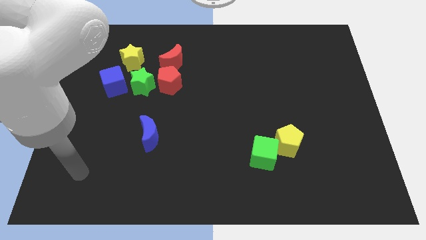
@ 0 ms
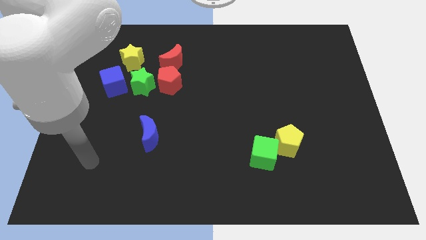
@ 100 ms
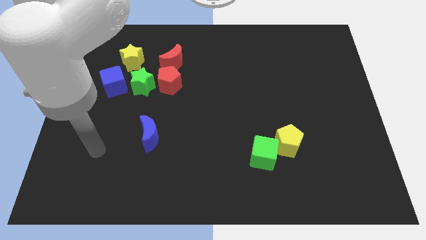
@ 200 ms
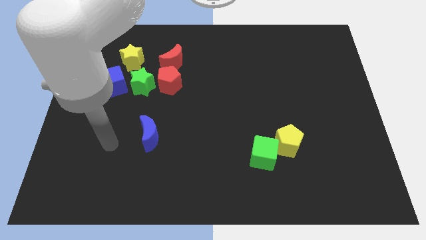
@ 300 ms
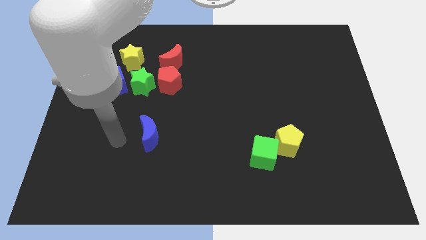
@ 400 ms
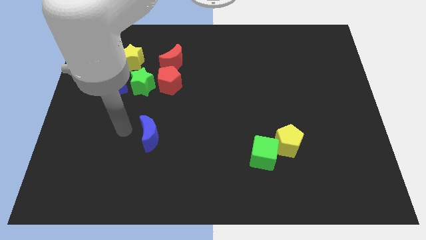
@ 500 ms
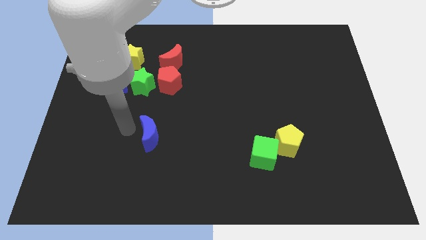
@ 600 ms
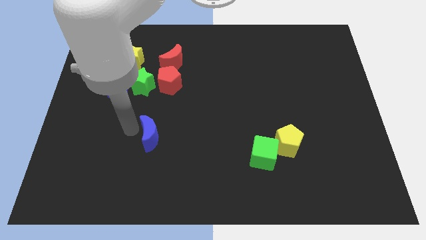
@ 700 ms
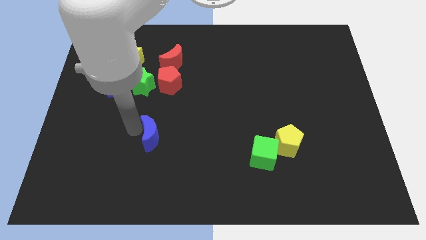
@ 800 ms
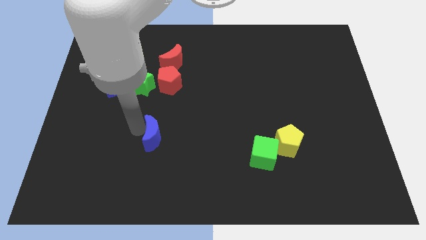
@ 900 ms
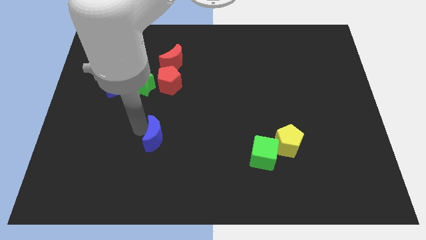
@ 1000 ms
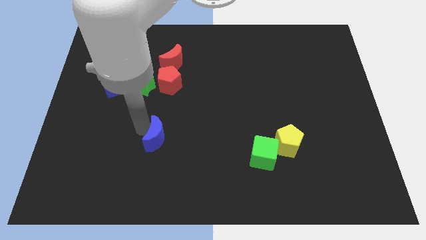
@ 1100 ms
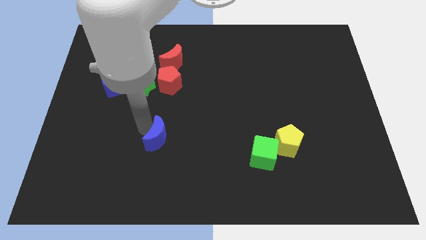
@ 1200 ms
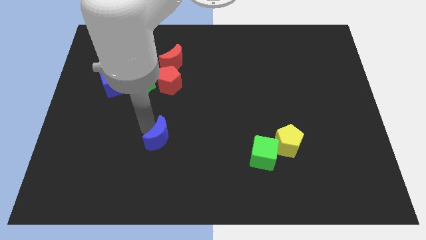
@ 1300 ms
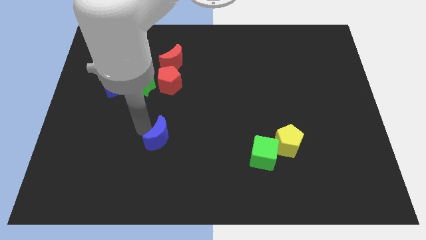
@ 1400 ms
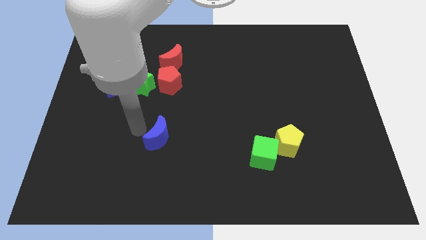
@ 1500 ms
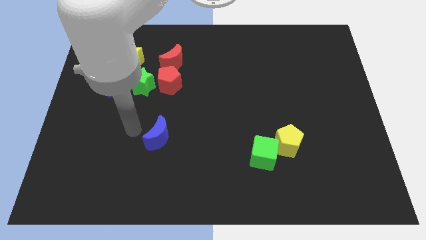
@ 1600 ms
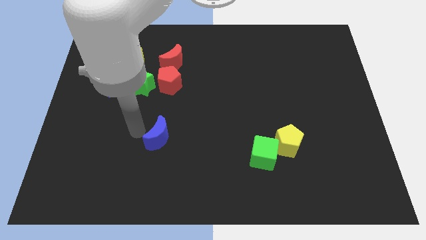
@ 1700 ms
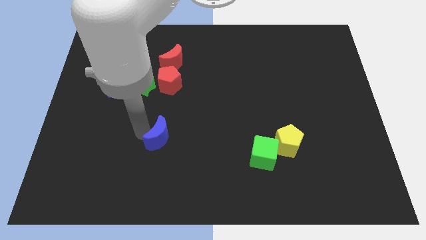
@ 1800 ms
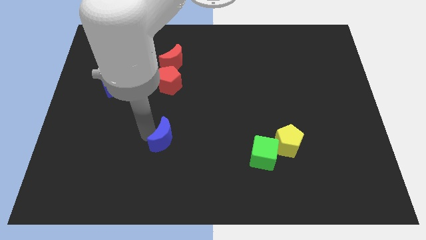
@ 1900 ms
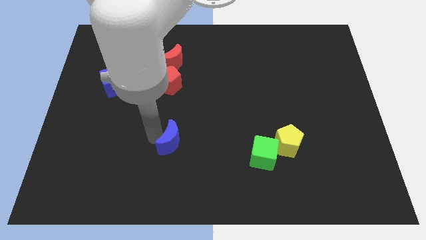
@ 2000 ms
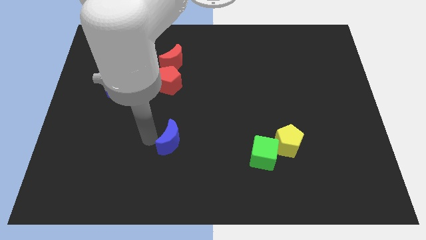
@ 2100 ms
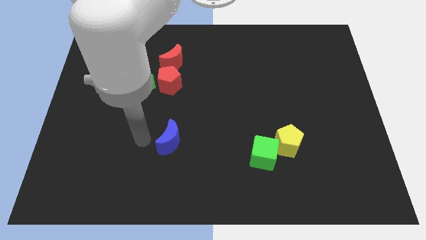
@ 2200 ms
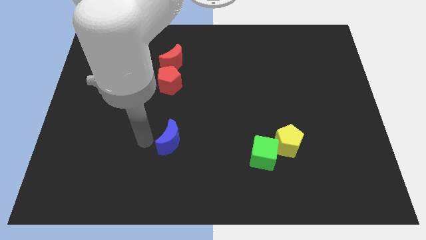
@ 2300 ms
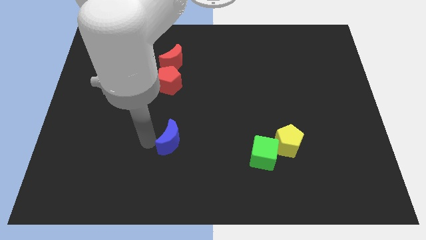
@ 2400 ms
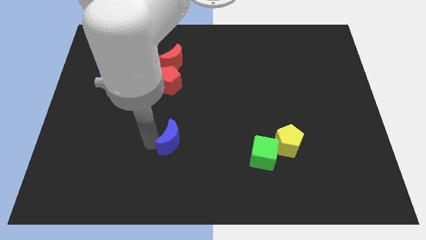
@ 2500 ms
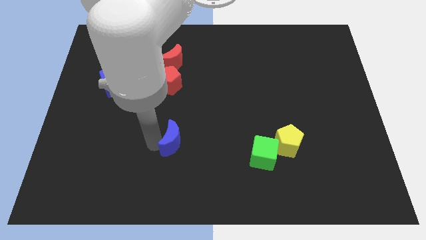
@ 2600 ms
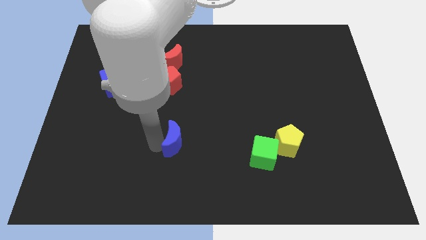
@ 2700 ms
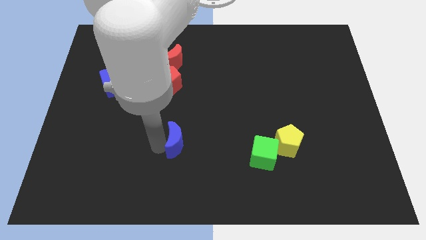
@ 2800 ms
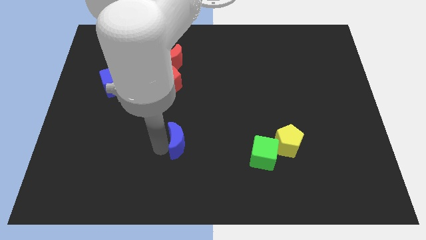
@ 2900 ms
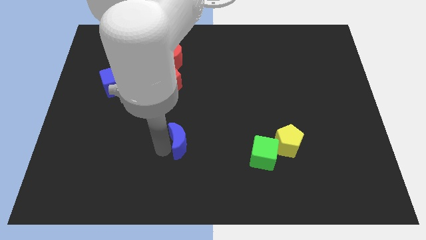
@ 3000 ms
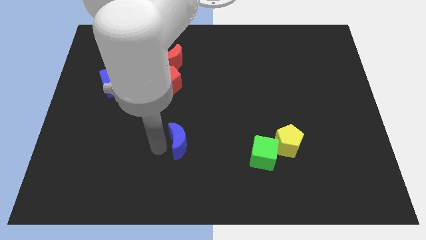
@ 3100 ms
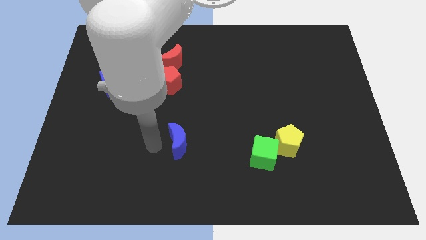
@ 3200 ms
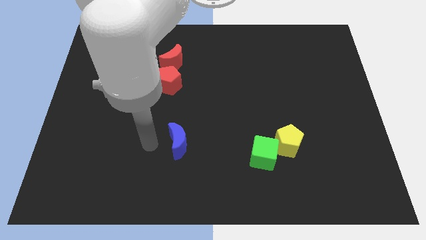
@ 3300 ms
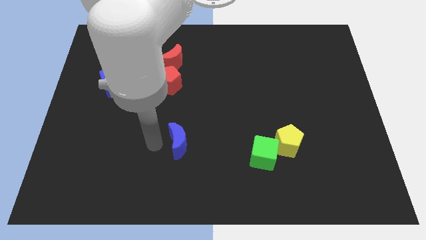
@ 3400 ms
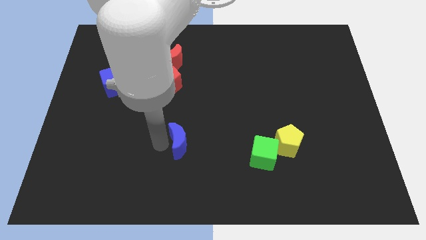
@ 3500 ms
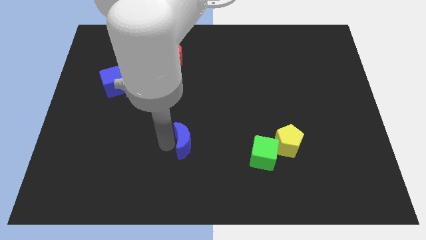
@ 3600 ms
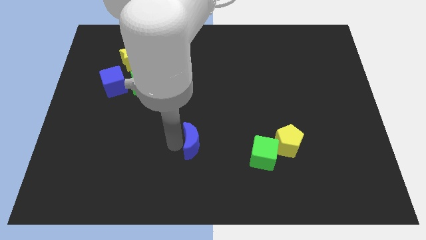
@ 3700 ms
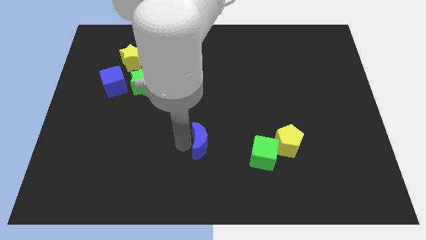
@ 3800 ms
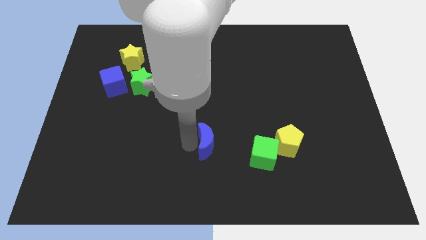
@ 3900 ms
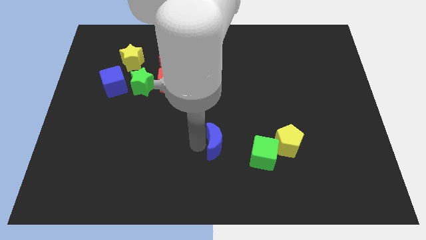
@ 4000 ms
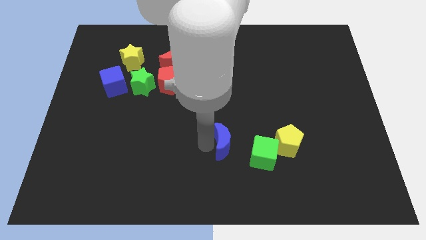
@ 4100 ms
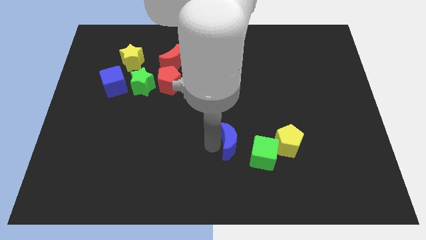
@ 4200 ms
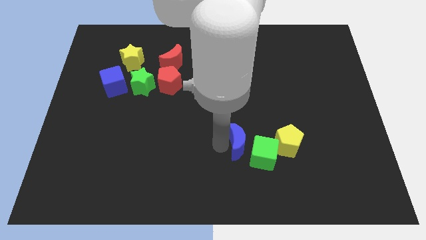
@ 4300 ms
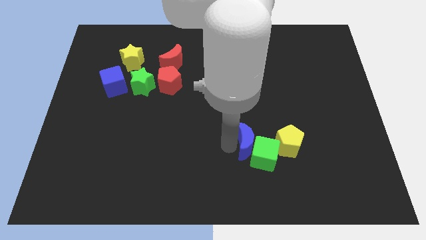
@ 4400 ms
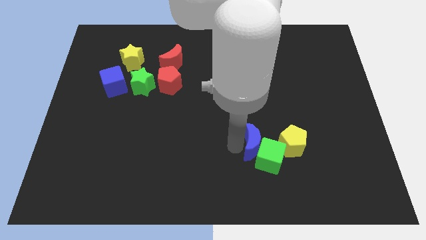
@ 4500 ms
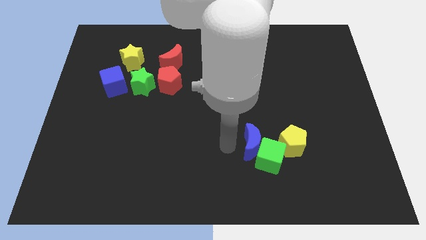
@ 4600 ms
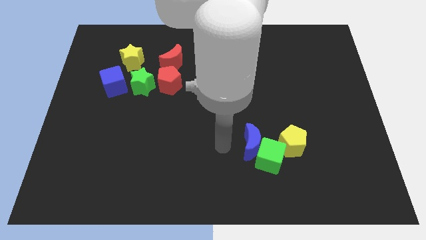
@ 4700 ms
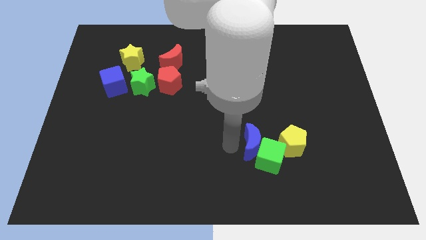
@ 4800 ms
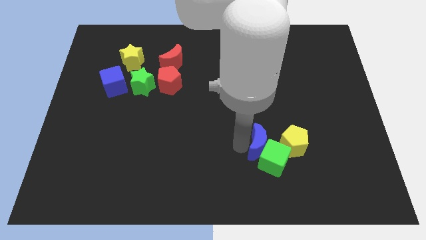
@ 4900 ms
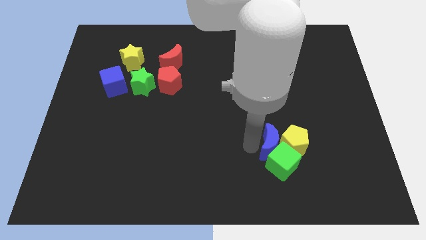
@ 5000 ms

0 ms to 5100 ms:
slide the blue moon towards the yellow pentagon

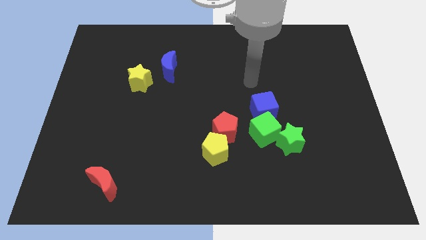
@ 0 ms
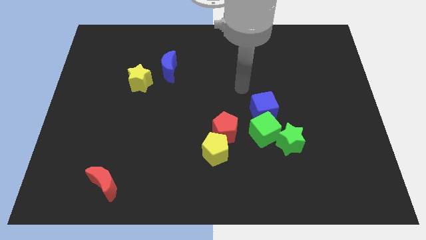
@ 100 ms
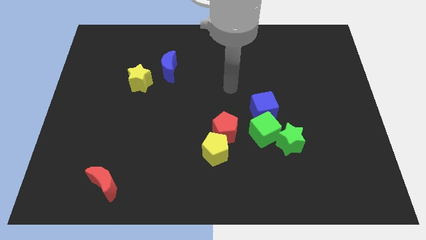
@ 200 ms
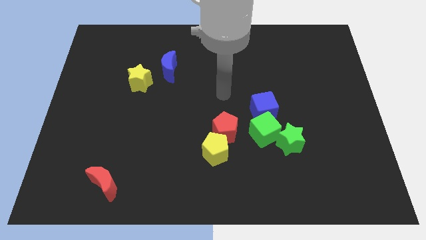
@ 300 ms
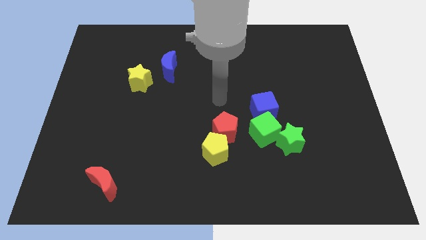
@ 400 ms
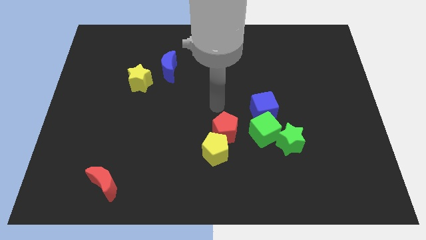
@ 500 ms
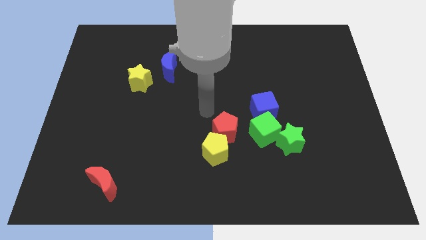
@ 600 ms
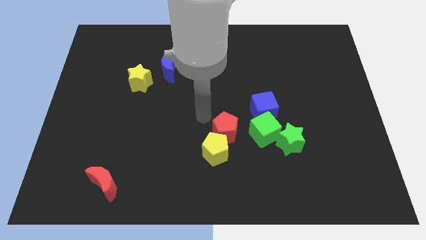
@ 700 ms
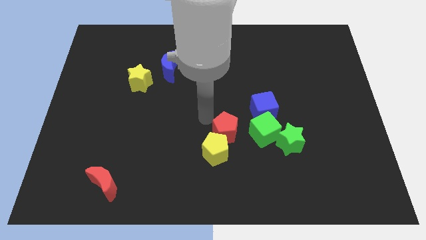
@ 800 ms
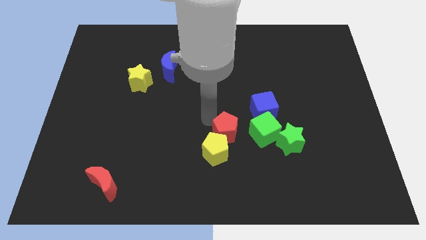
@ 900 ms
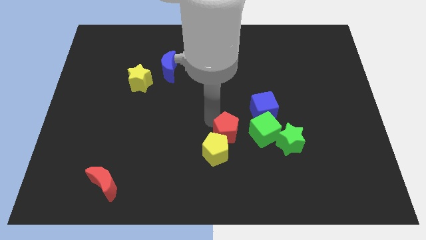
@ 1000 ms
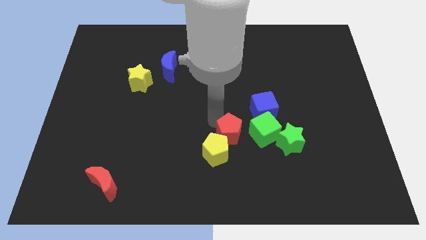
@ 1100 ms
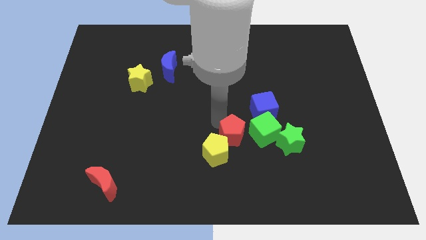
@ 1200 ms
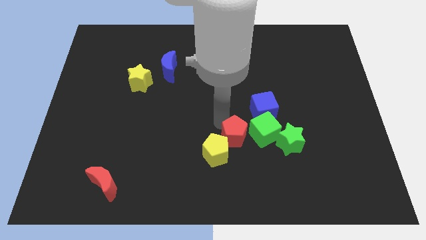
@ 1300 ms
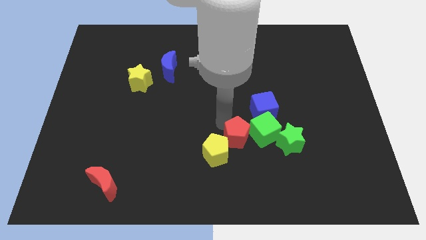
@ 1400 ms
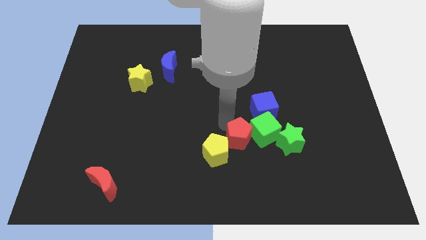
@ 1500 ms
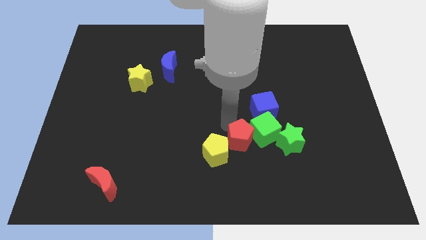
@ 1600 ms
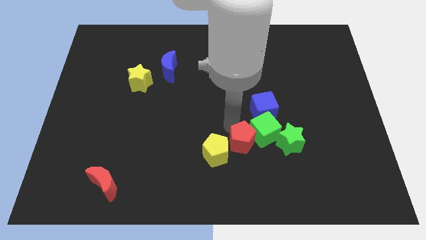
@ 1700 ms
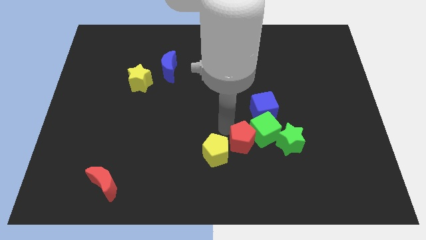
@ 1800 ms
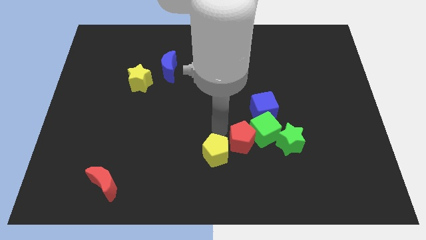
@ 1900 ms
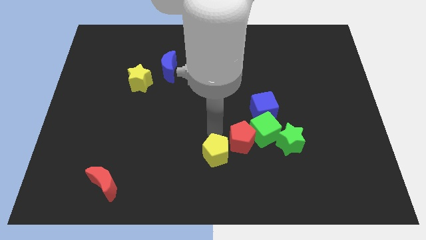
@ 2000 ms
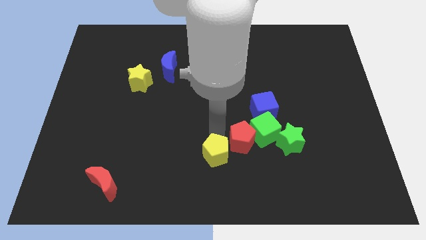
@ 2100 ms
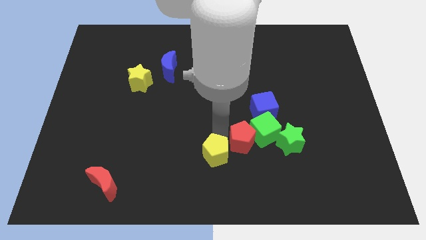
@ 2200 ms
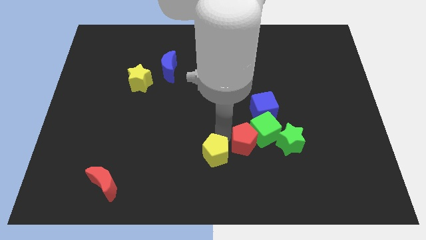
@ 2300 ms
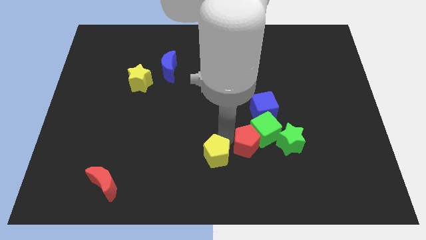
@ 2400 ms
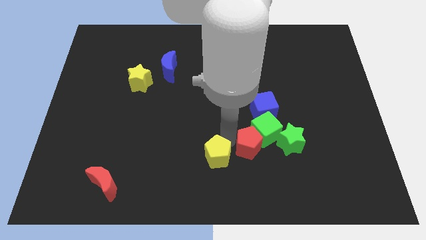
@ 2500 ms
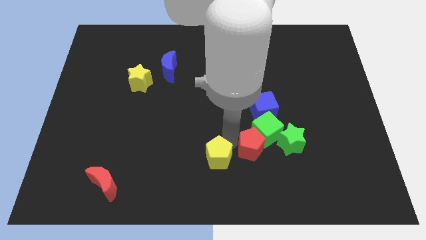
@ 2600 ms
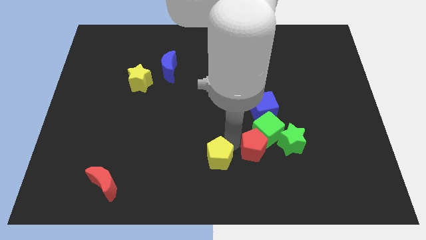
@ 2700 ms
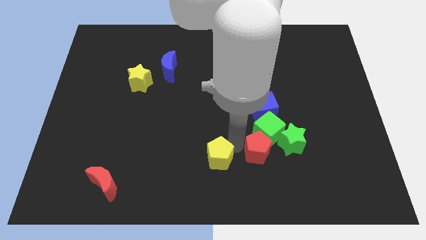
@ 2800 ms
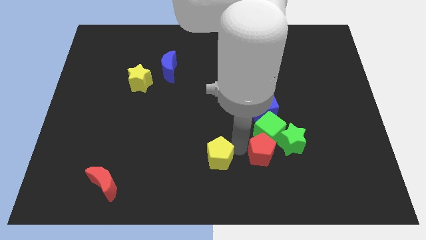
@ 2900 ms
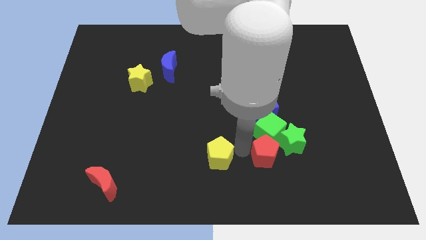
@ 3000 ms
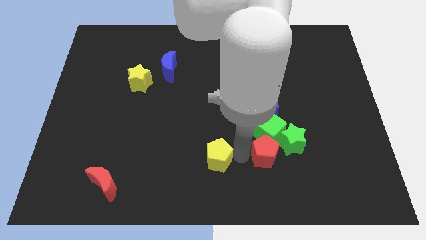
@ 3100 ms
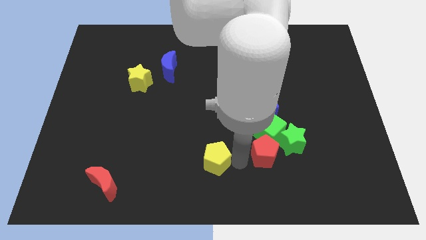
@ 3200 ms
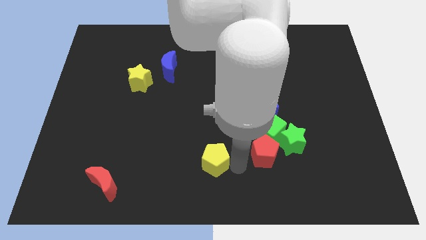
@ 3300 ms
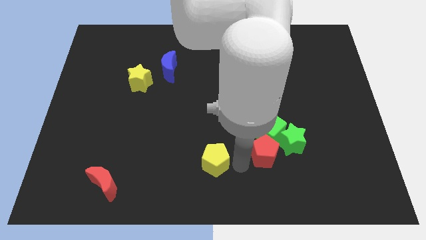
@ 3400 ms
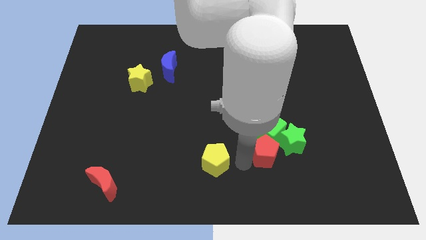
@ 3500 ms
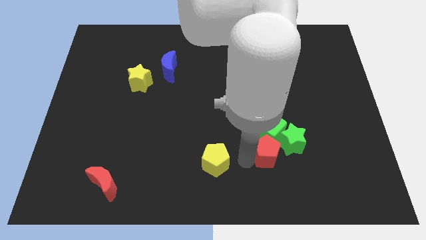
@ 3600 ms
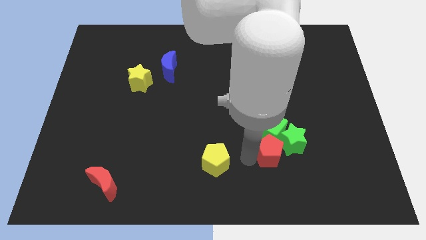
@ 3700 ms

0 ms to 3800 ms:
slide the red pentagon towards the green star
